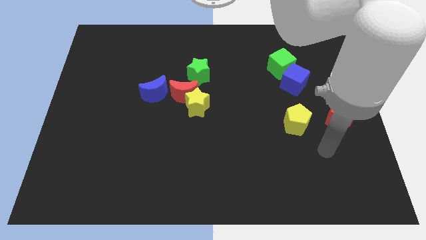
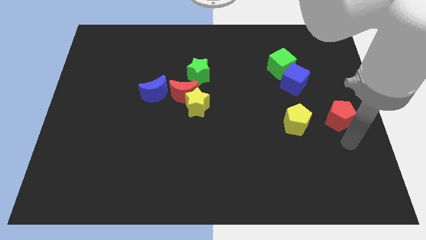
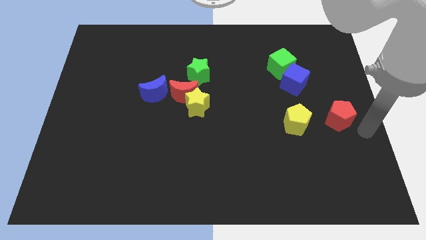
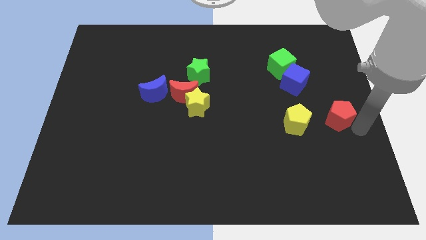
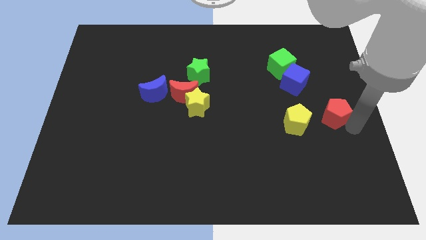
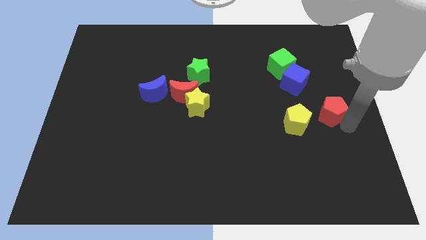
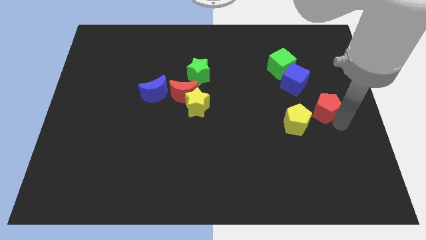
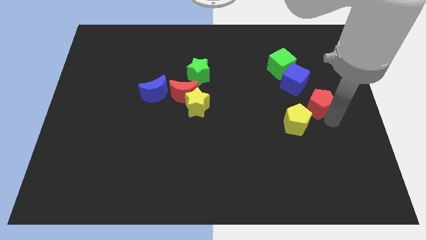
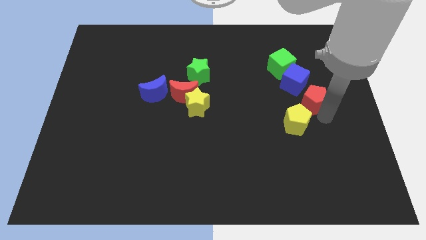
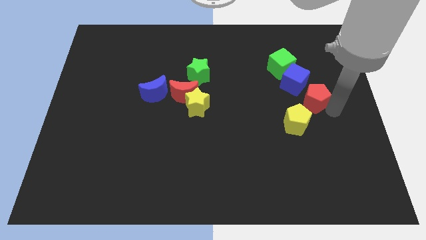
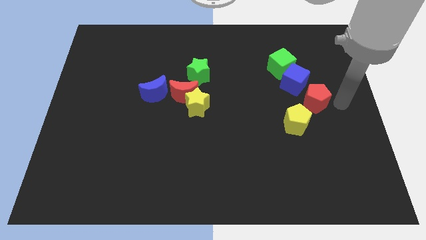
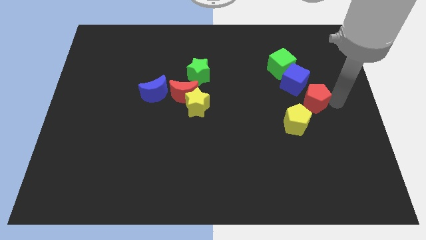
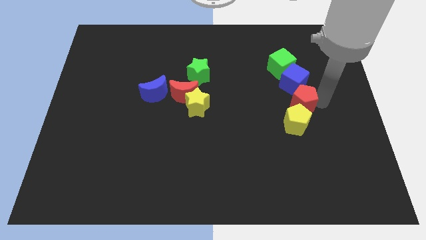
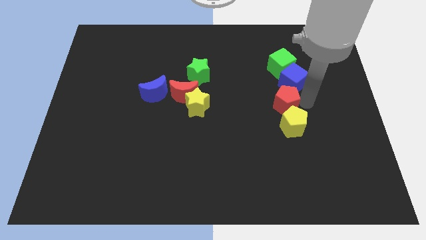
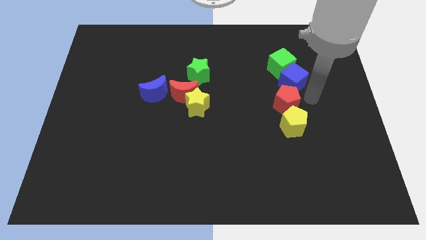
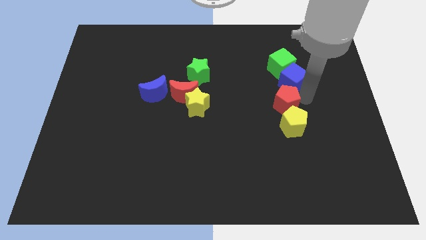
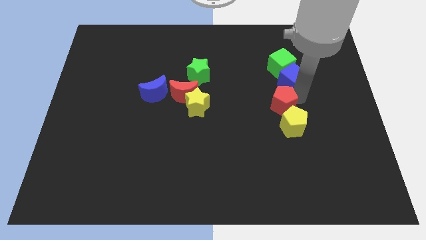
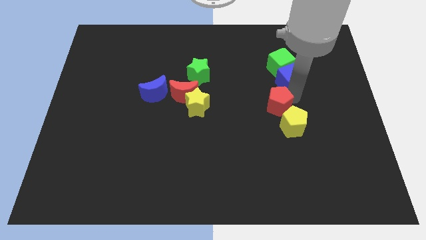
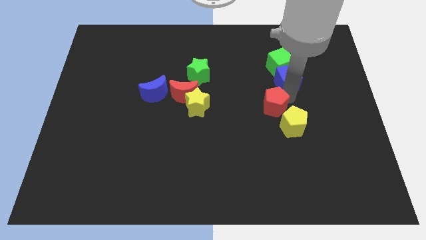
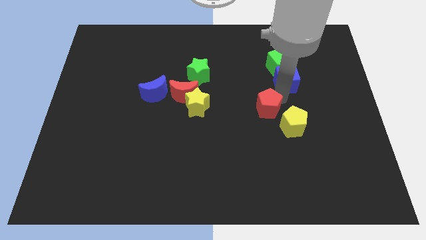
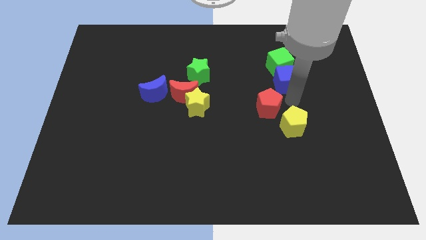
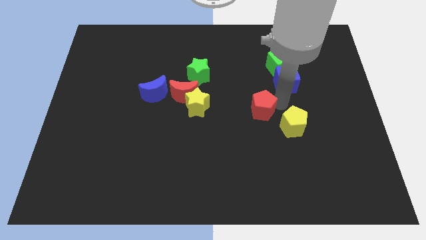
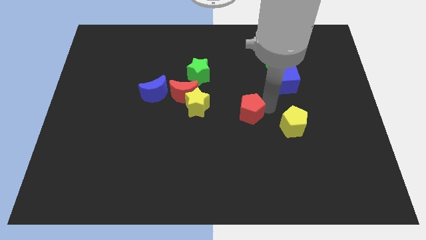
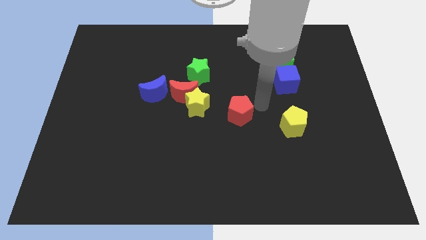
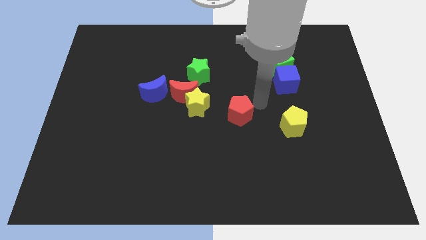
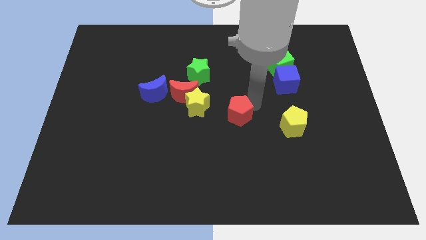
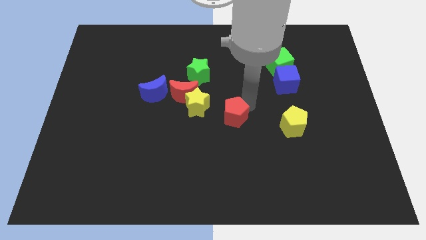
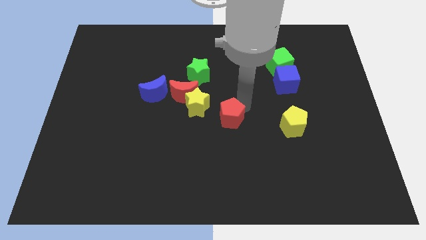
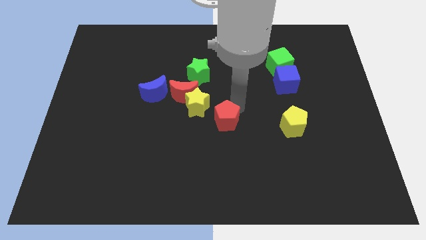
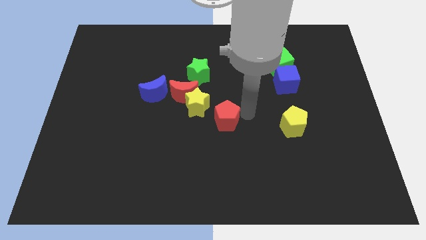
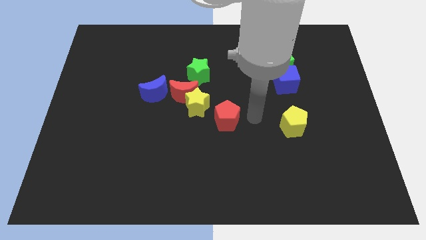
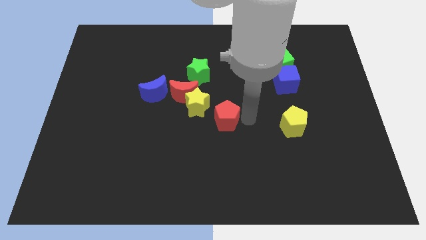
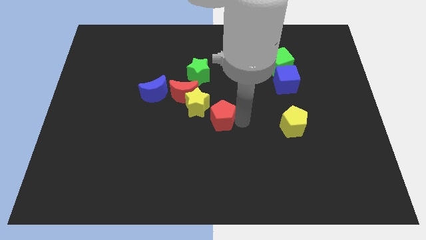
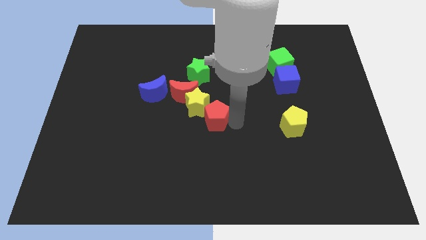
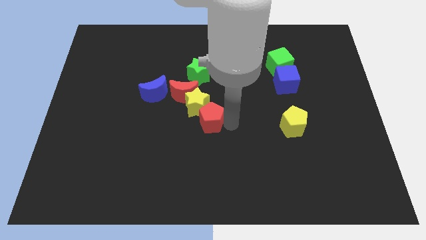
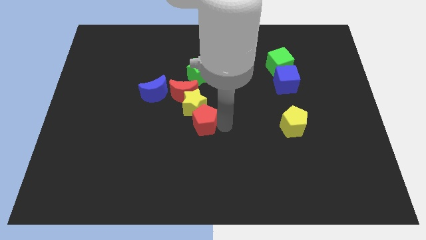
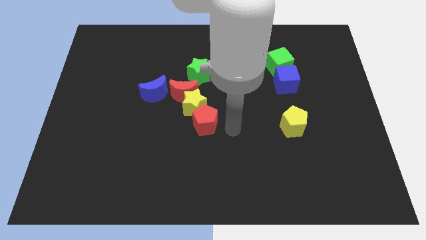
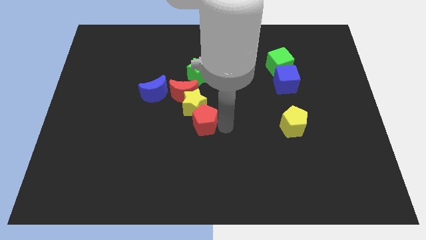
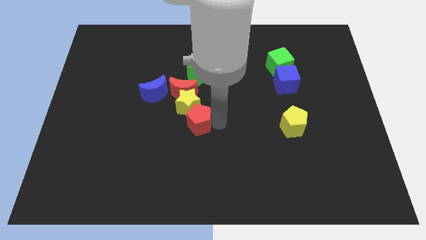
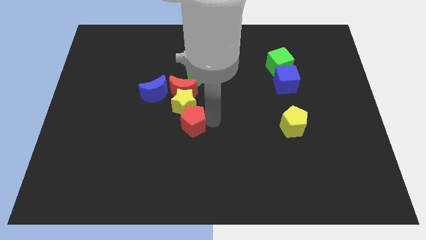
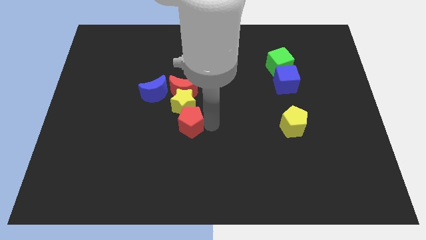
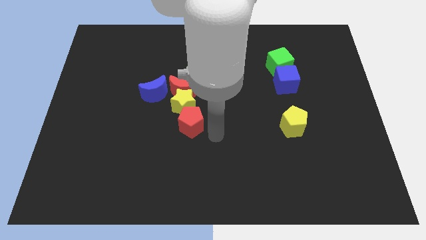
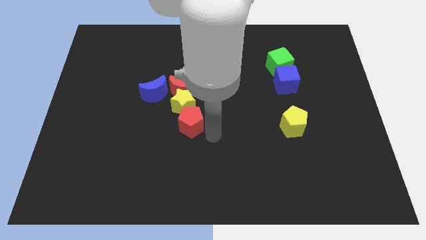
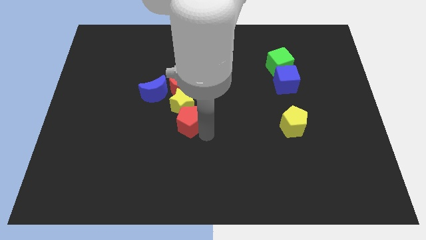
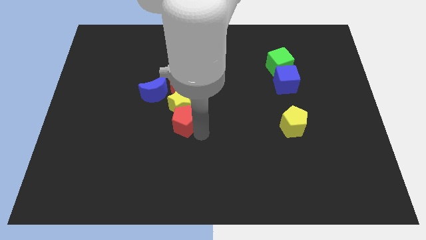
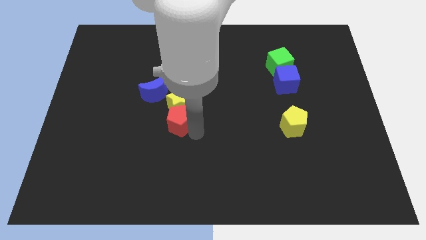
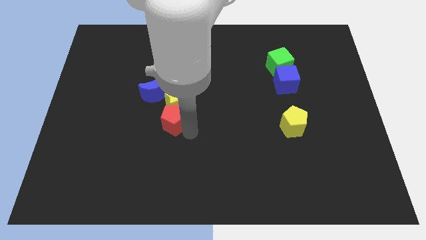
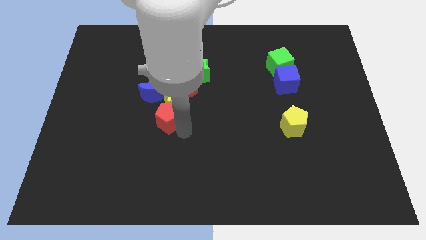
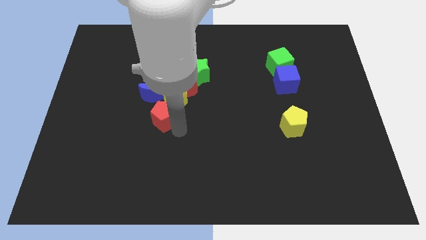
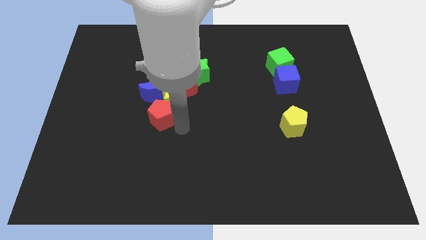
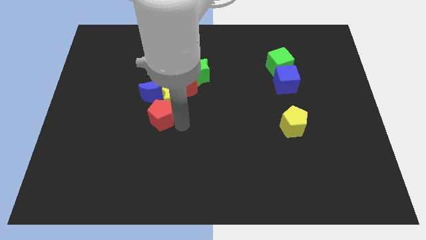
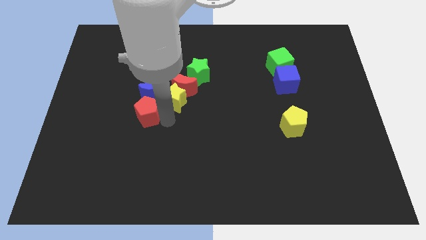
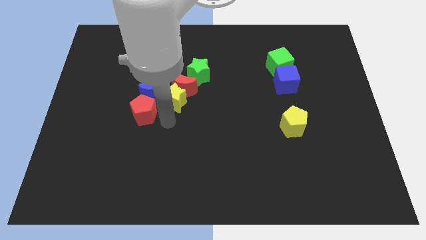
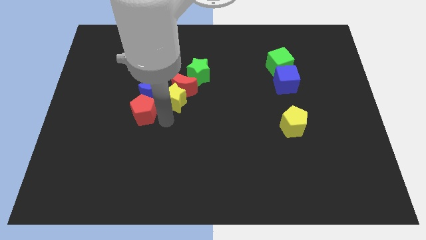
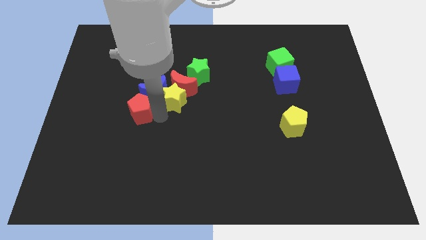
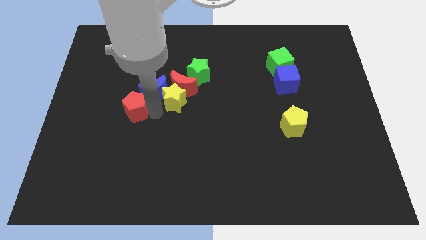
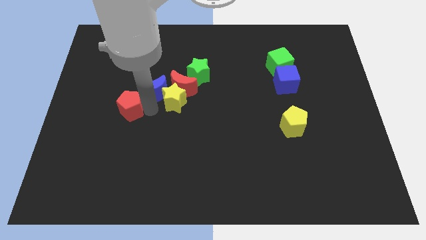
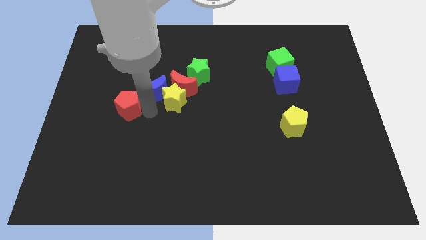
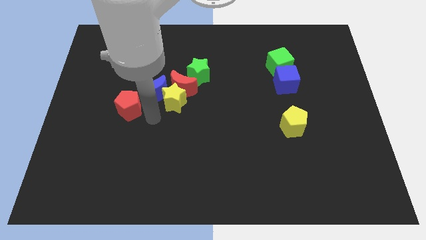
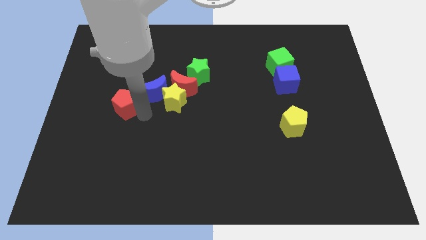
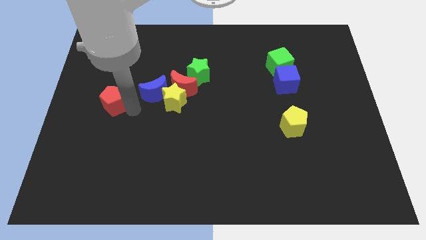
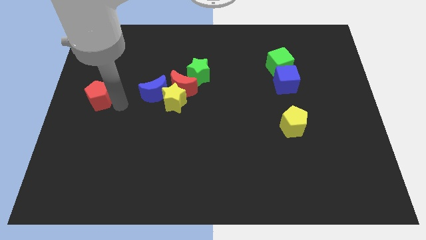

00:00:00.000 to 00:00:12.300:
push the red pentagon to the center left
